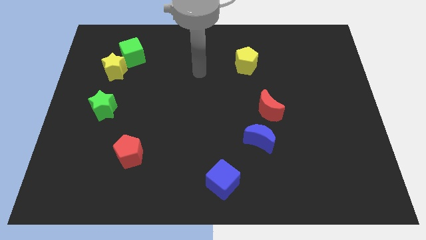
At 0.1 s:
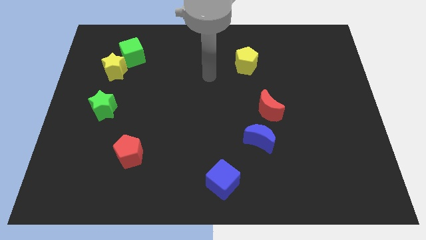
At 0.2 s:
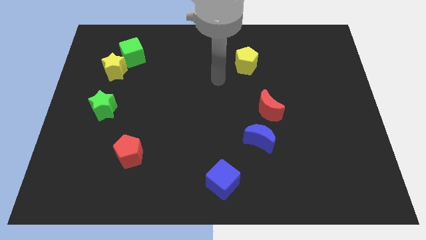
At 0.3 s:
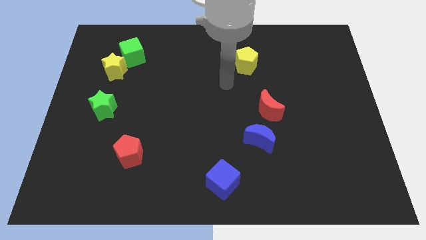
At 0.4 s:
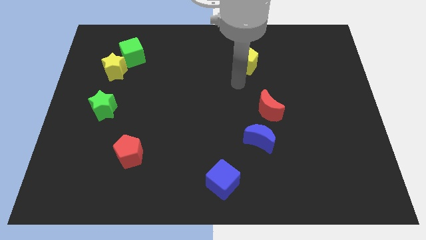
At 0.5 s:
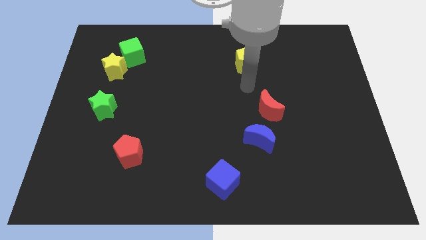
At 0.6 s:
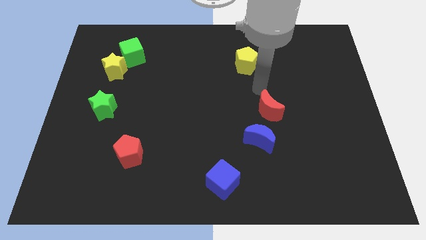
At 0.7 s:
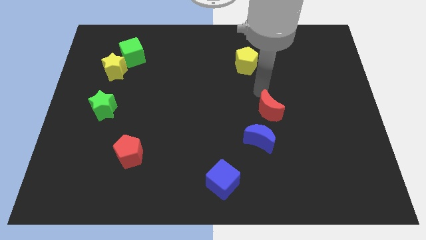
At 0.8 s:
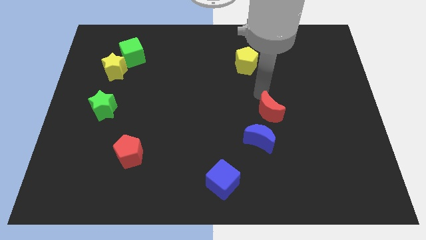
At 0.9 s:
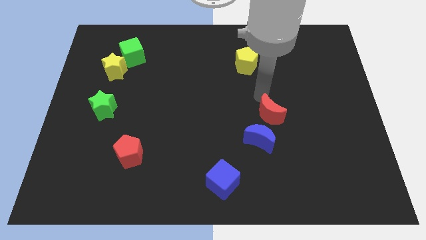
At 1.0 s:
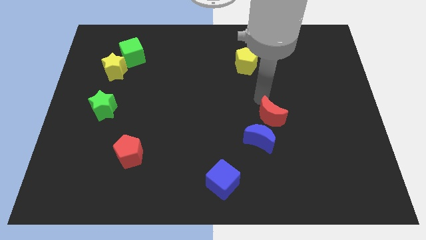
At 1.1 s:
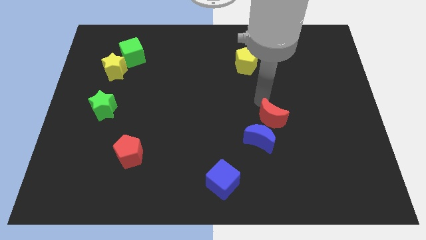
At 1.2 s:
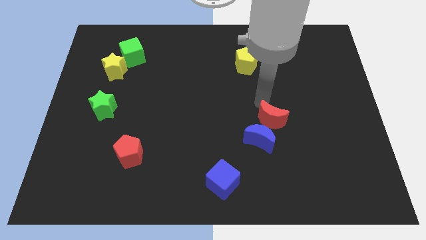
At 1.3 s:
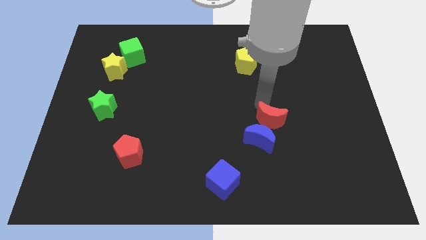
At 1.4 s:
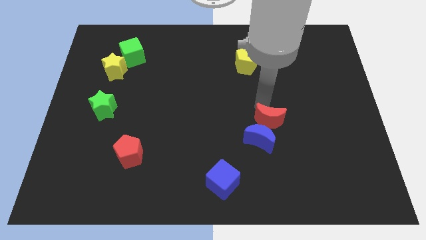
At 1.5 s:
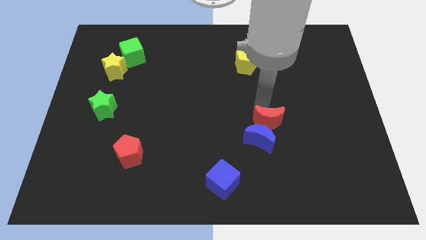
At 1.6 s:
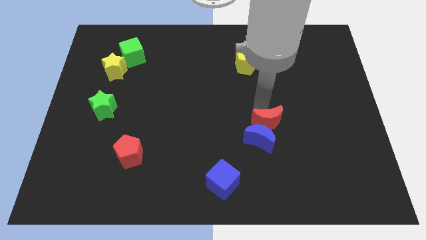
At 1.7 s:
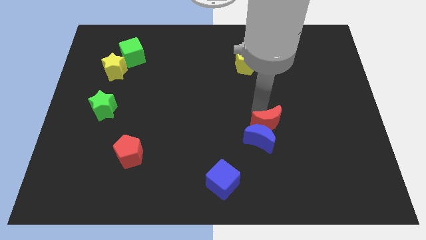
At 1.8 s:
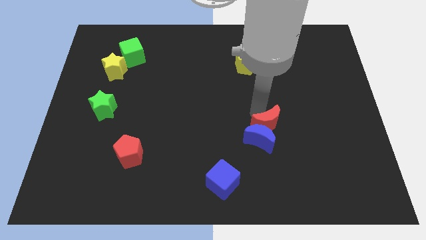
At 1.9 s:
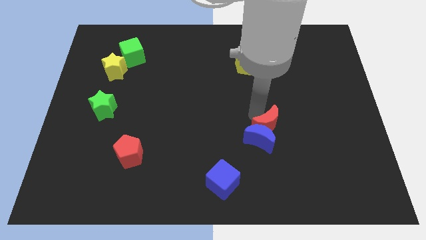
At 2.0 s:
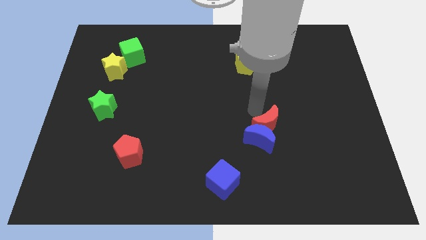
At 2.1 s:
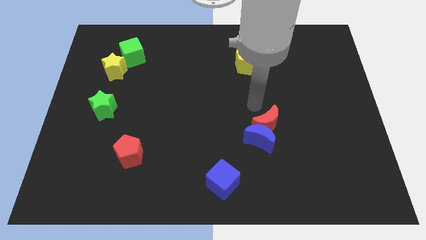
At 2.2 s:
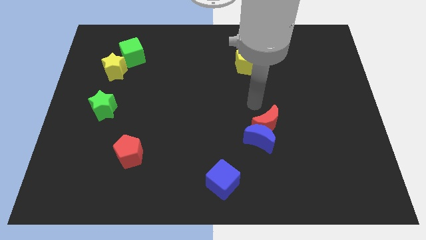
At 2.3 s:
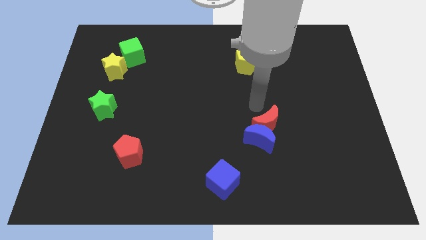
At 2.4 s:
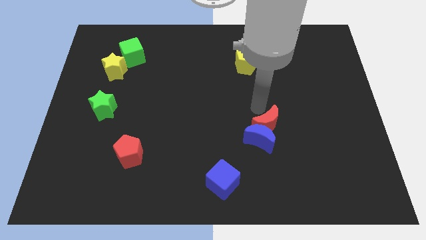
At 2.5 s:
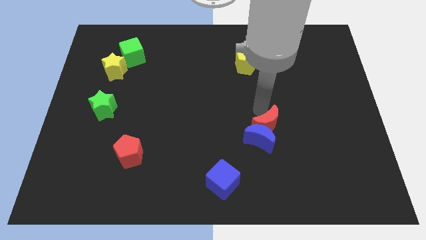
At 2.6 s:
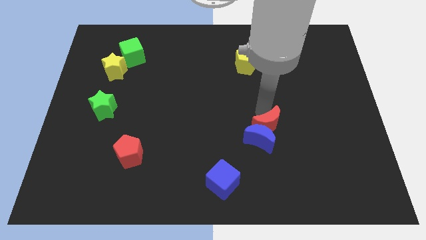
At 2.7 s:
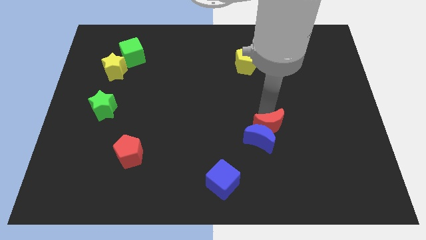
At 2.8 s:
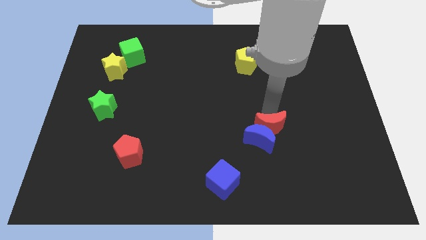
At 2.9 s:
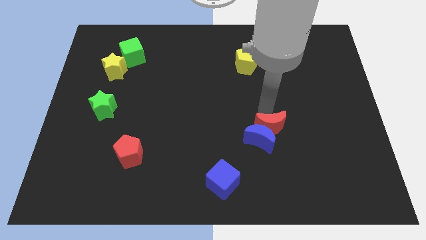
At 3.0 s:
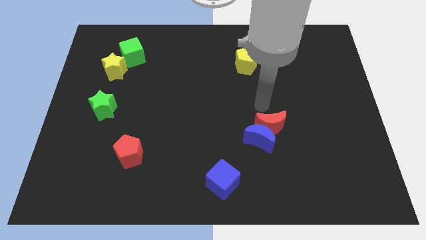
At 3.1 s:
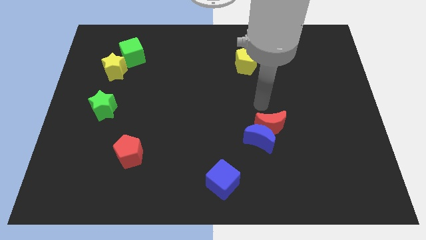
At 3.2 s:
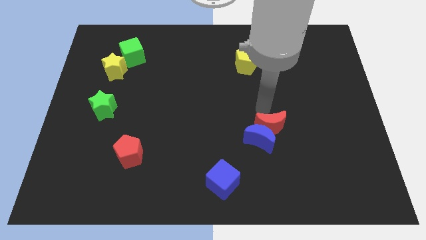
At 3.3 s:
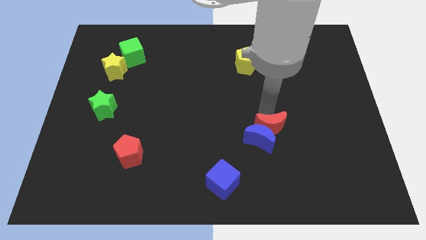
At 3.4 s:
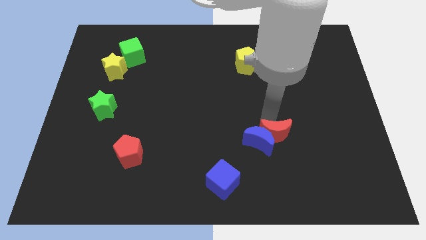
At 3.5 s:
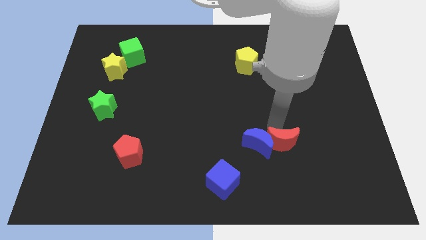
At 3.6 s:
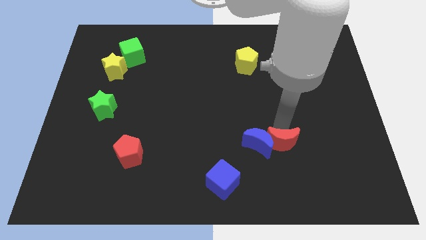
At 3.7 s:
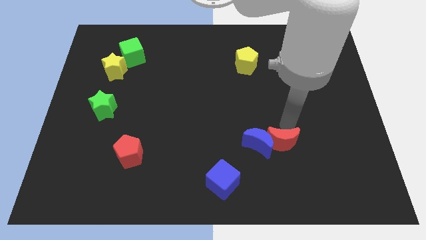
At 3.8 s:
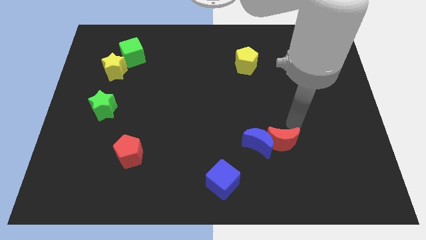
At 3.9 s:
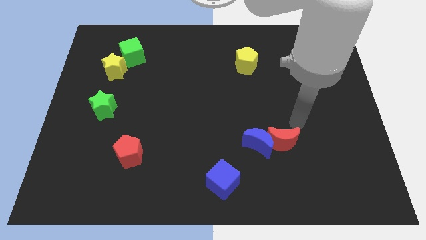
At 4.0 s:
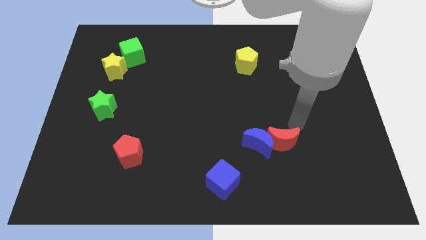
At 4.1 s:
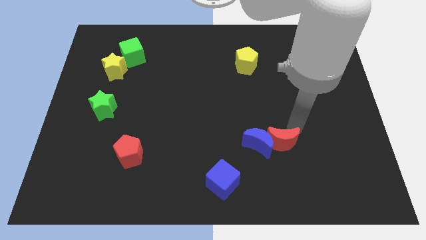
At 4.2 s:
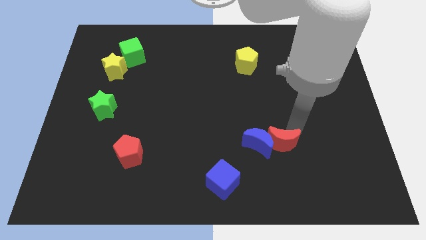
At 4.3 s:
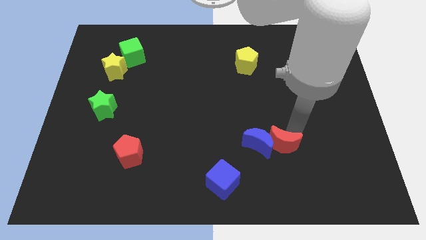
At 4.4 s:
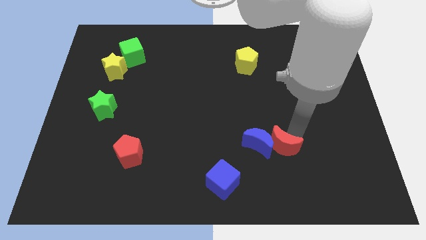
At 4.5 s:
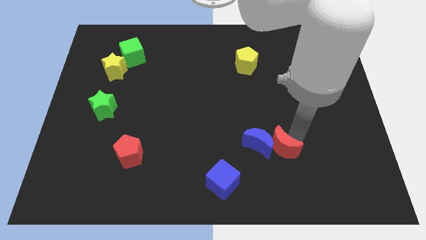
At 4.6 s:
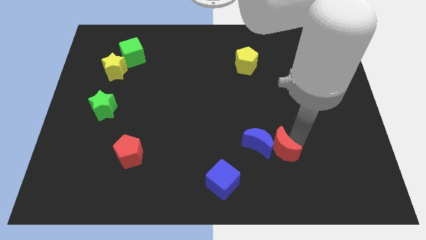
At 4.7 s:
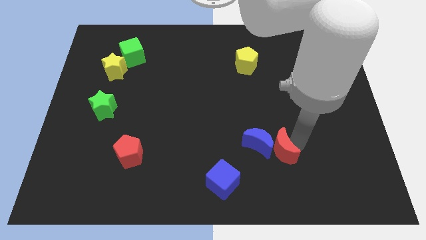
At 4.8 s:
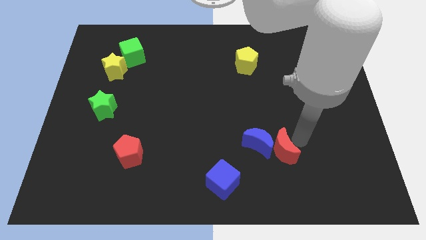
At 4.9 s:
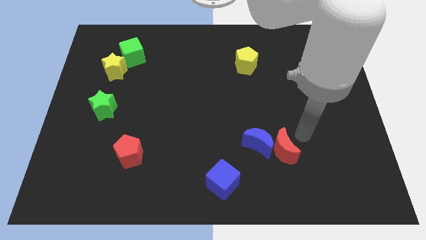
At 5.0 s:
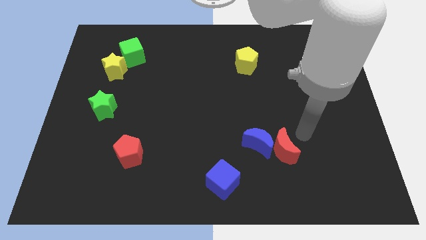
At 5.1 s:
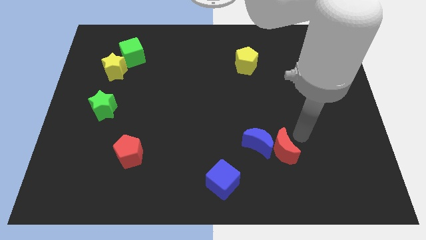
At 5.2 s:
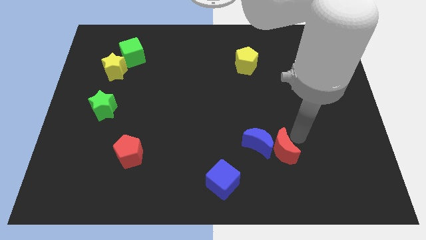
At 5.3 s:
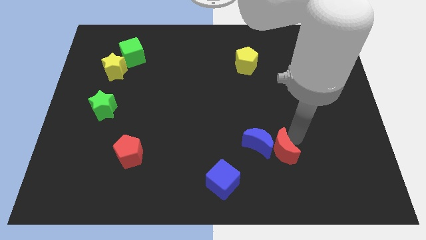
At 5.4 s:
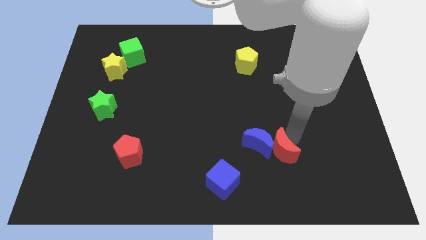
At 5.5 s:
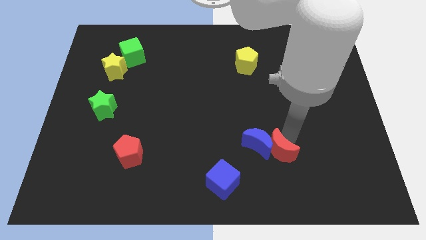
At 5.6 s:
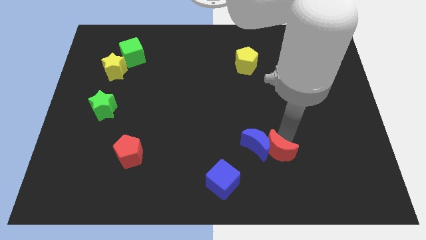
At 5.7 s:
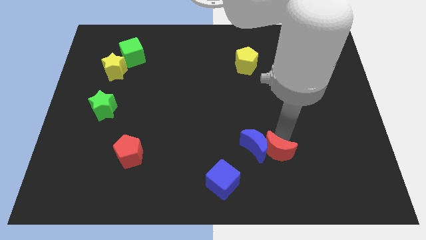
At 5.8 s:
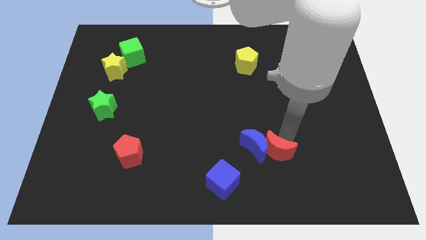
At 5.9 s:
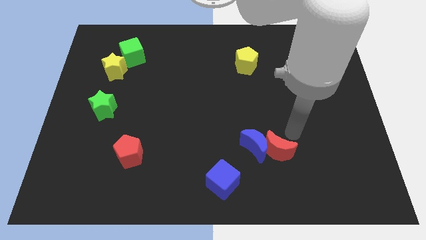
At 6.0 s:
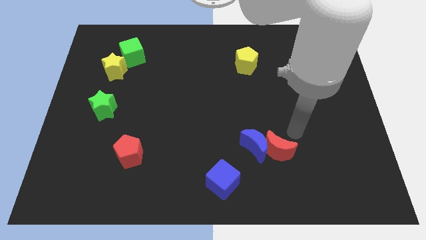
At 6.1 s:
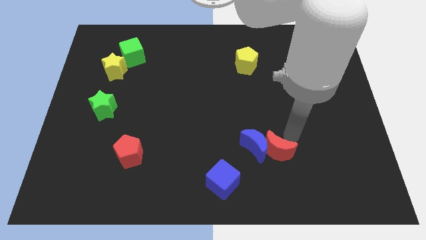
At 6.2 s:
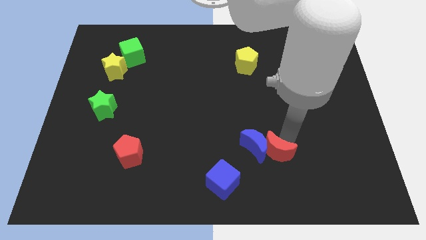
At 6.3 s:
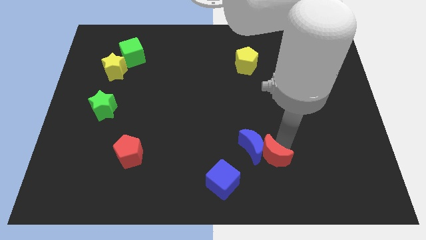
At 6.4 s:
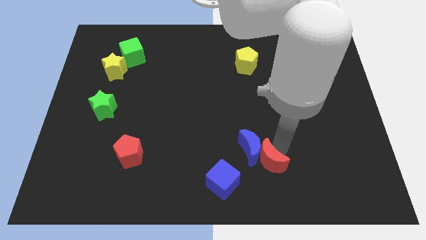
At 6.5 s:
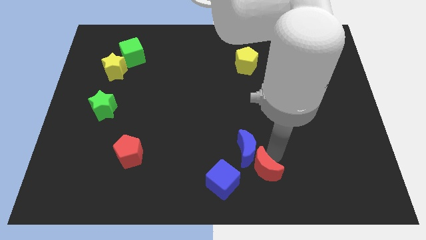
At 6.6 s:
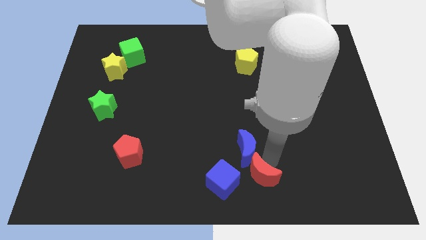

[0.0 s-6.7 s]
put the red moon to the bottom side
